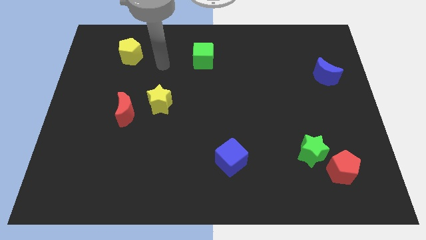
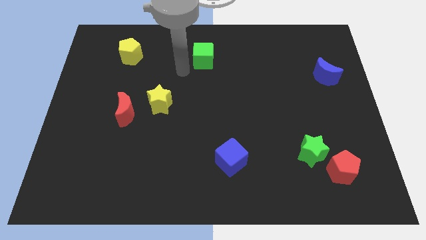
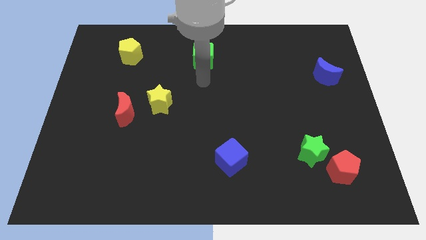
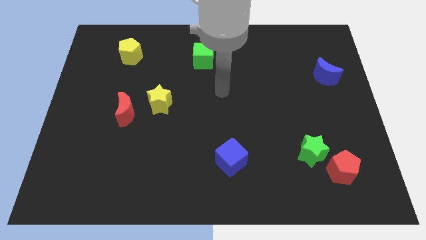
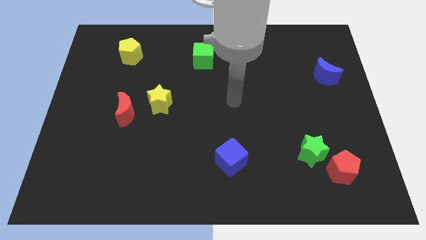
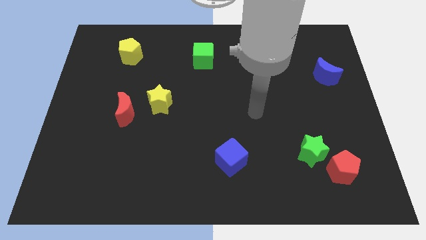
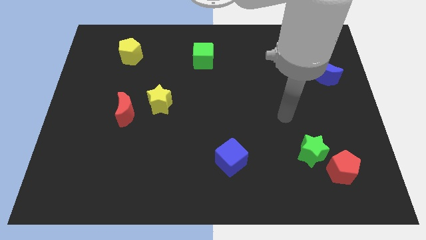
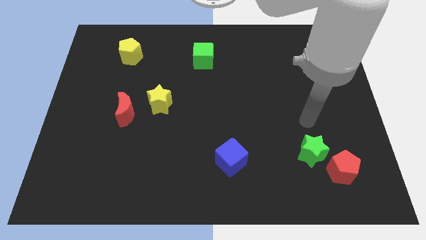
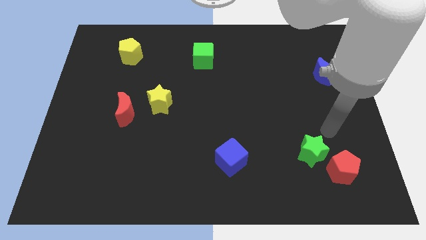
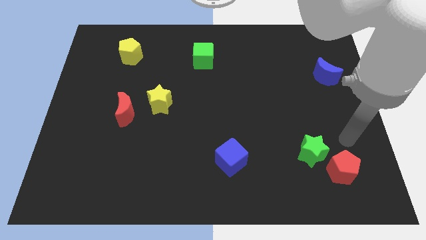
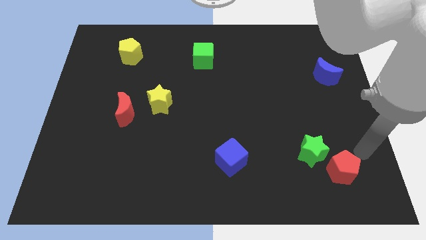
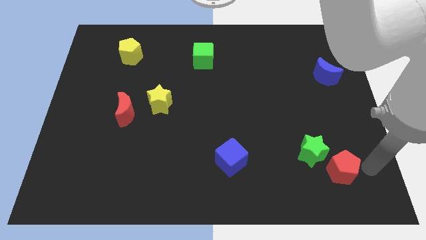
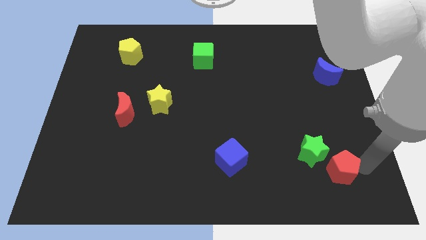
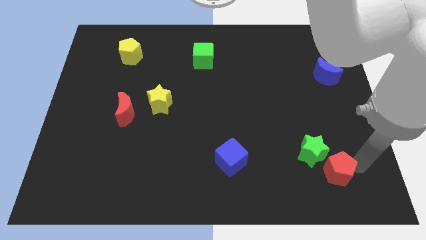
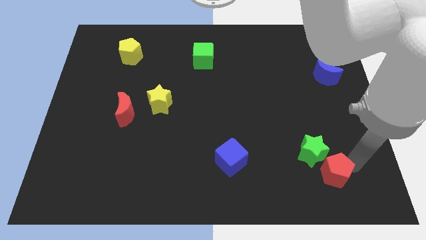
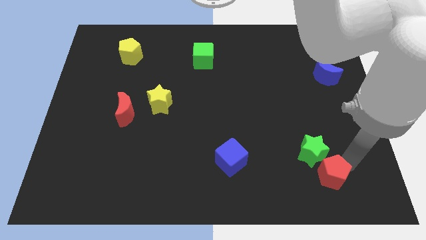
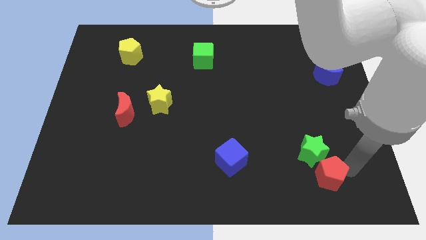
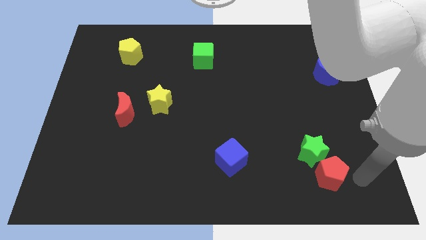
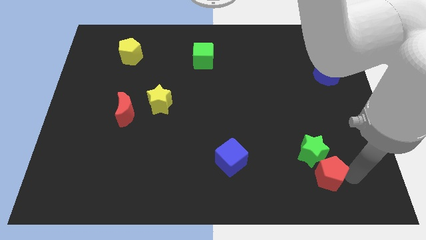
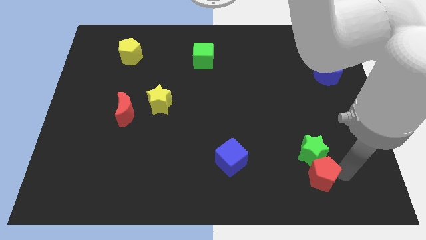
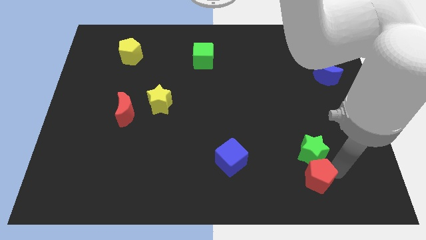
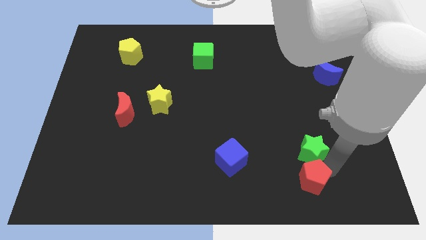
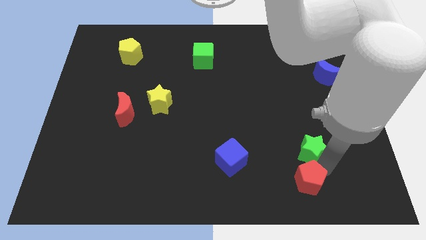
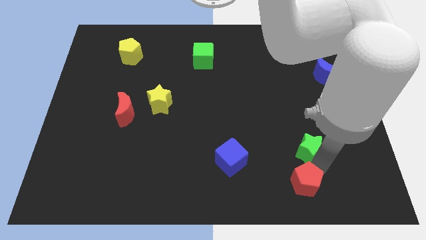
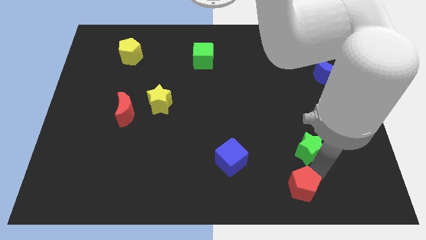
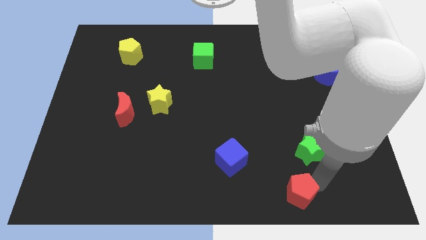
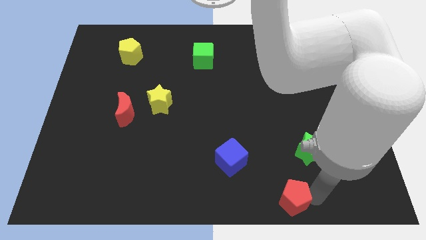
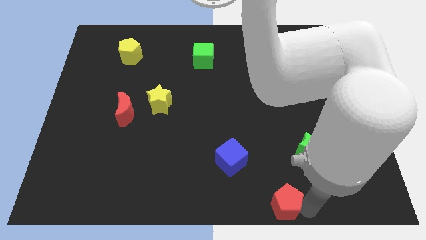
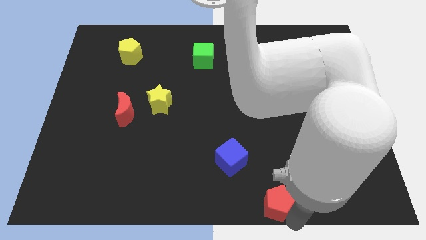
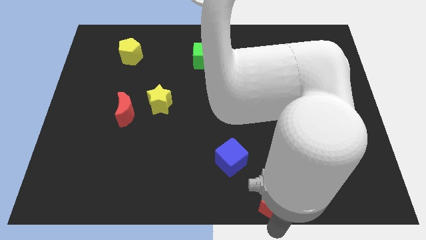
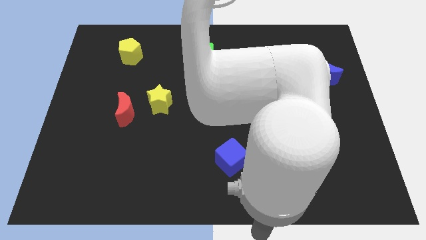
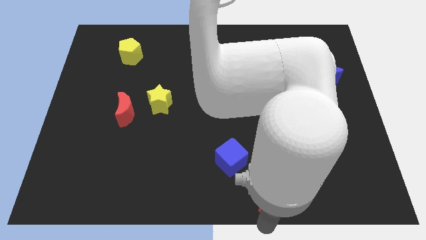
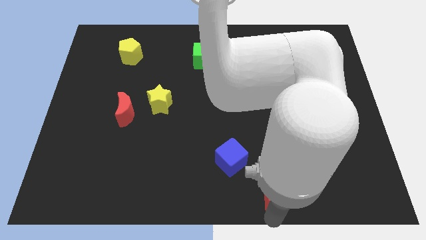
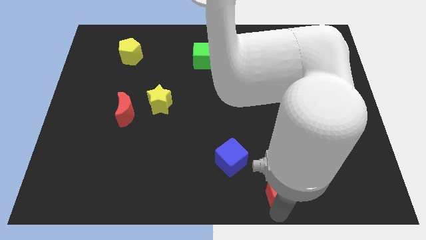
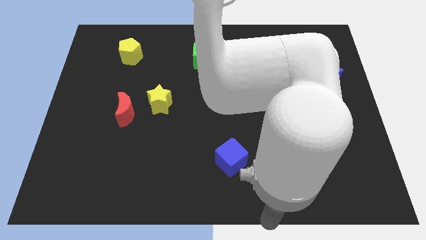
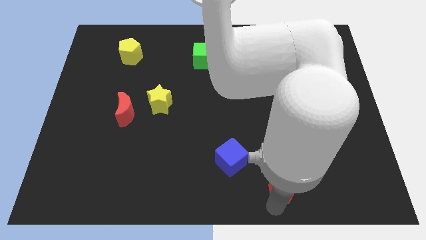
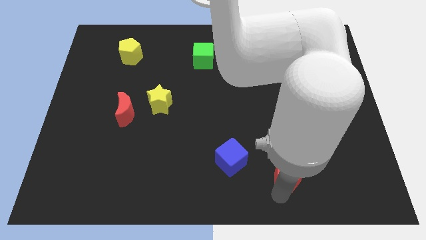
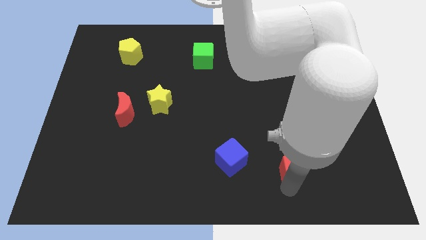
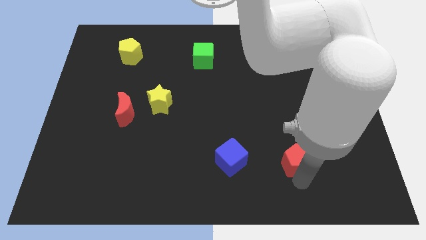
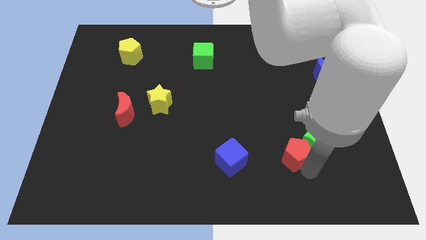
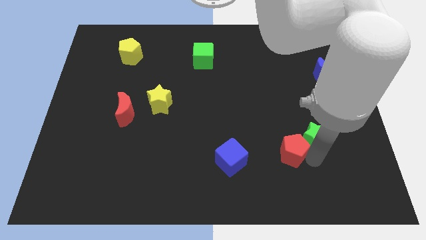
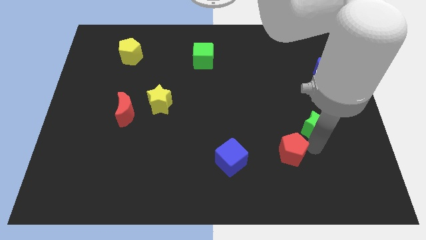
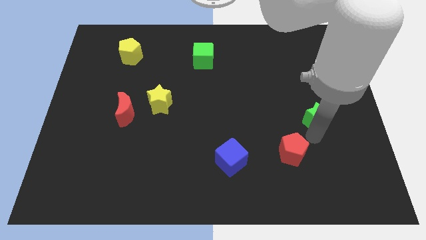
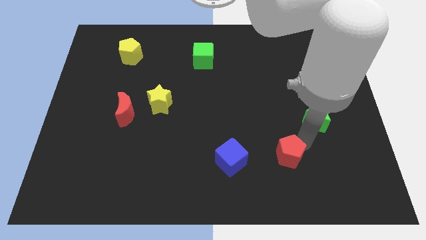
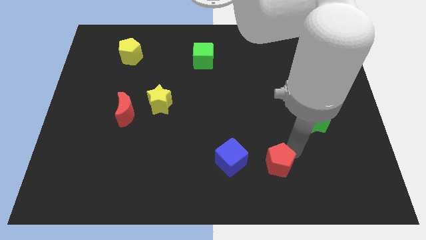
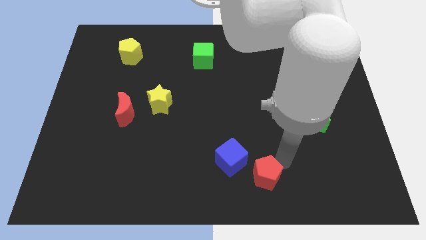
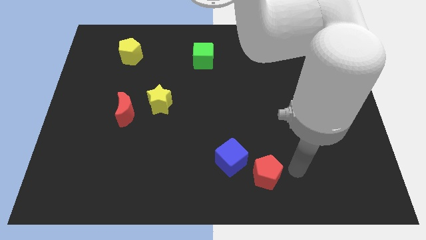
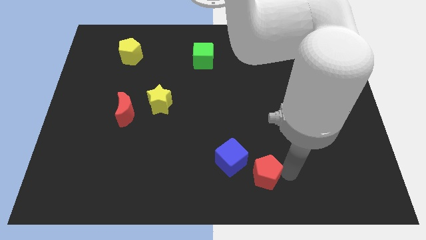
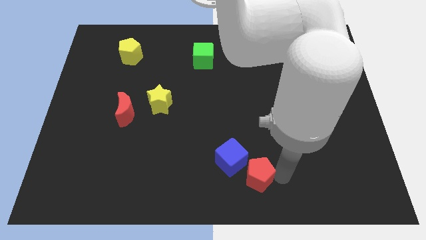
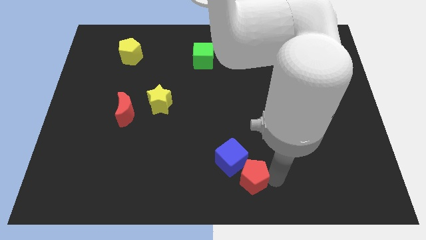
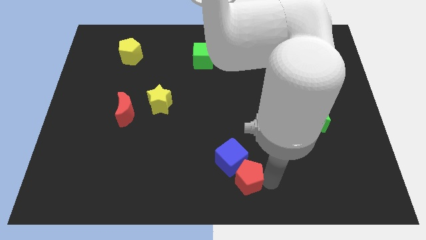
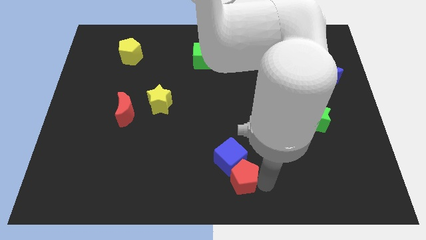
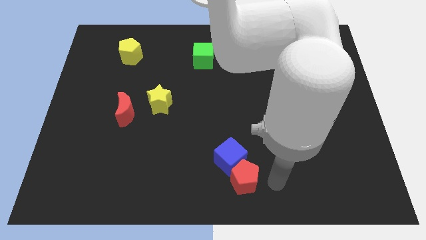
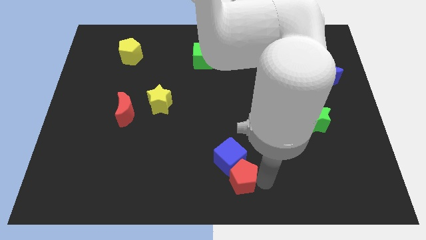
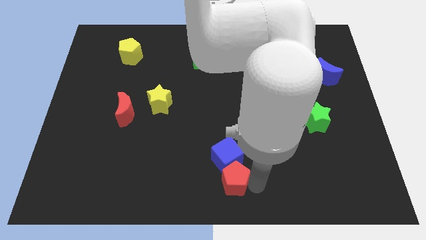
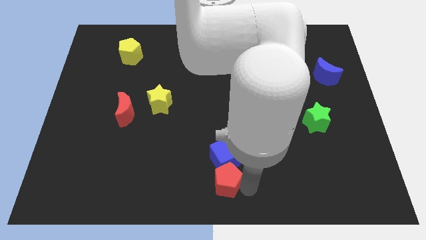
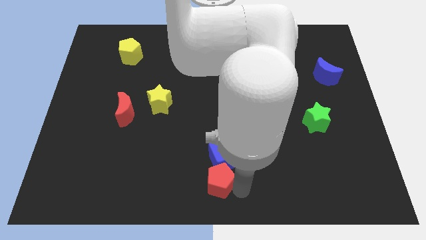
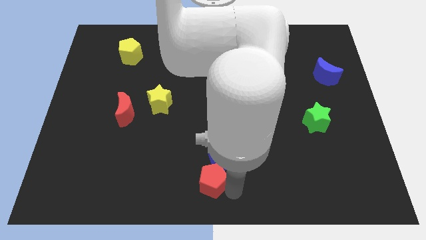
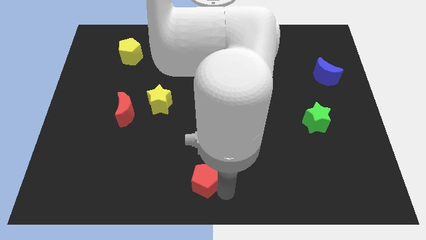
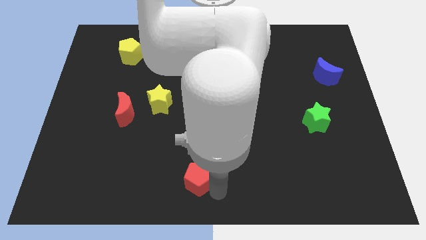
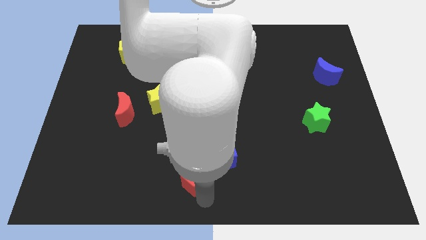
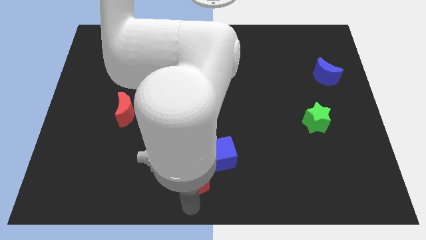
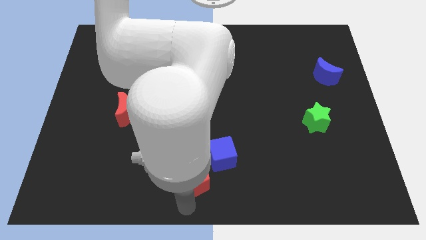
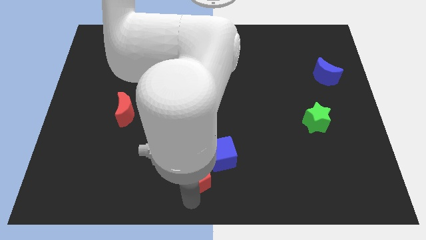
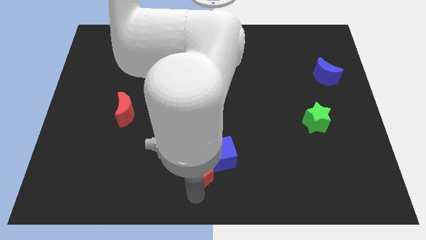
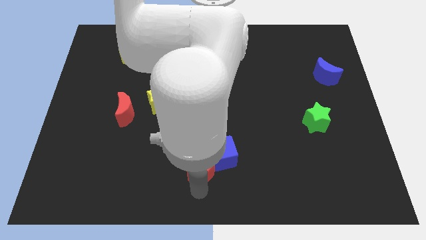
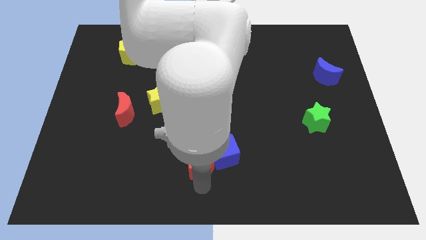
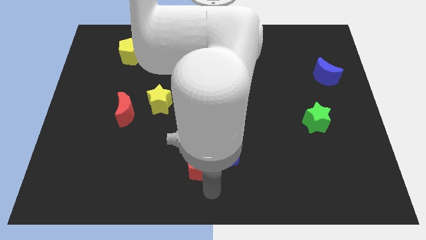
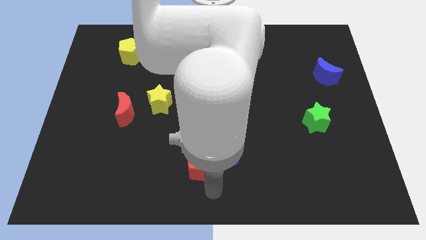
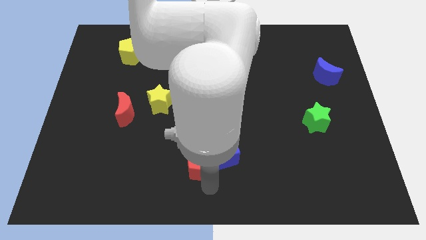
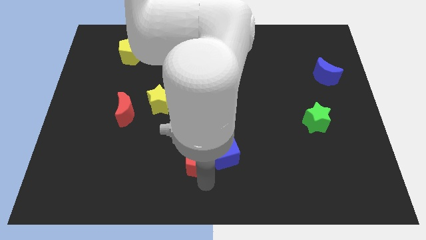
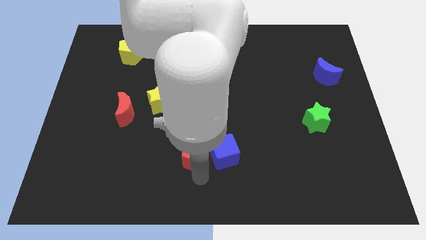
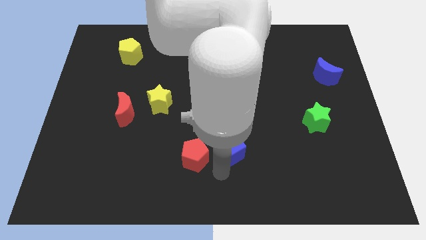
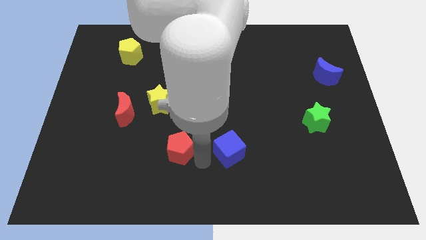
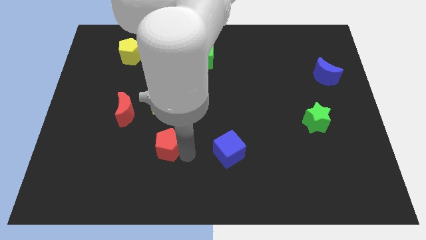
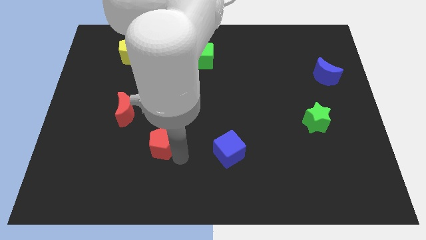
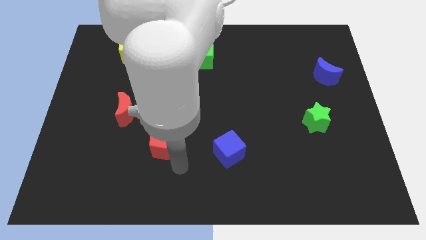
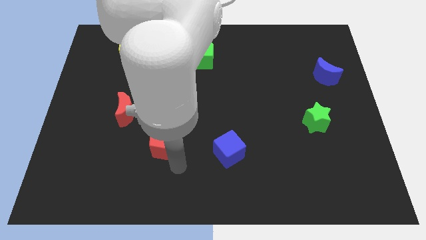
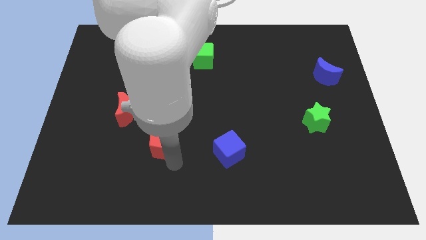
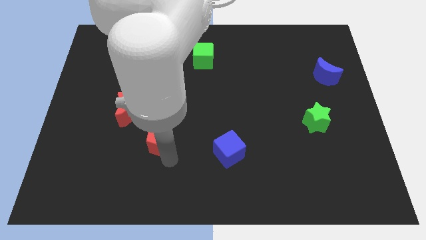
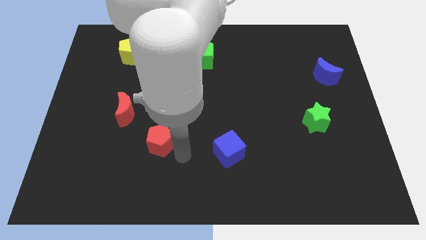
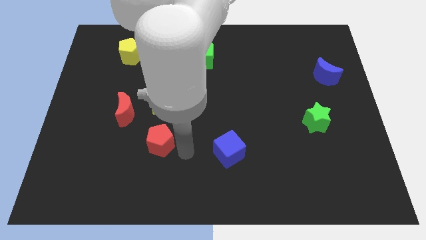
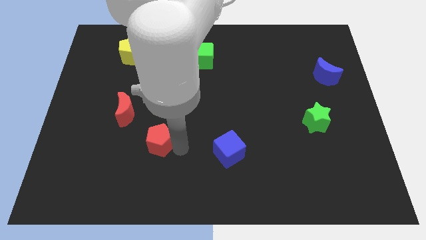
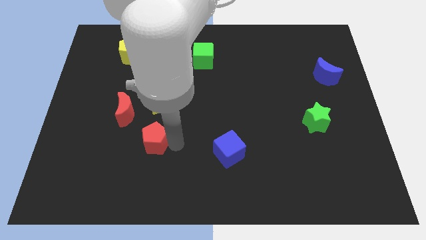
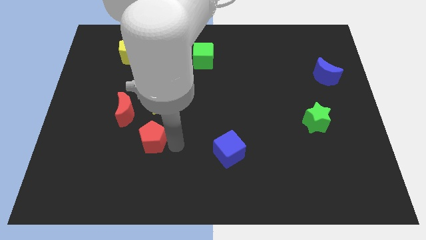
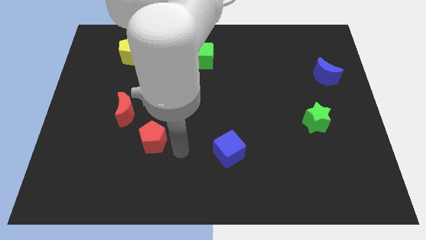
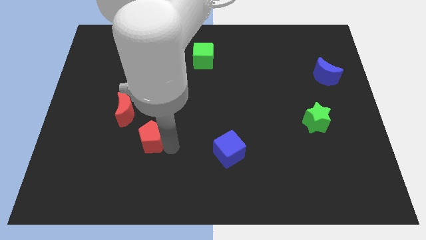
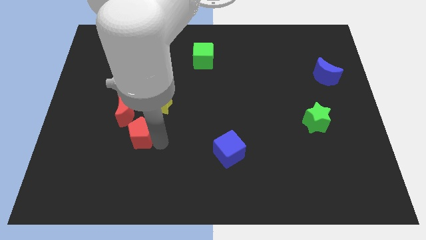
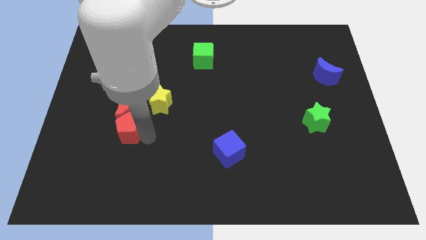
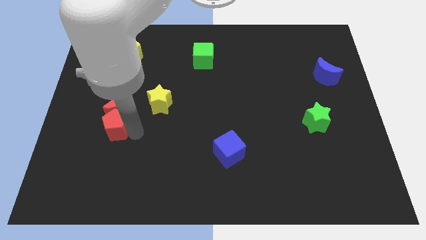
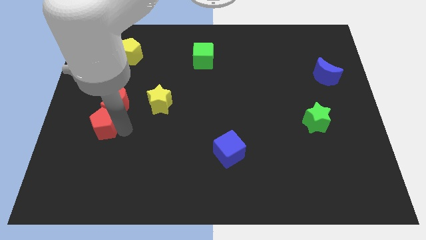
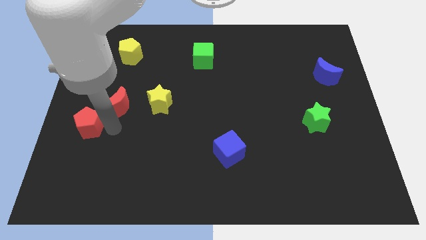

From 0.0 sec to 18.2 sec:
move the red pentagon to the center left
